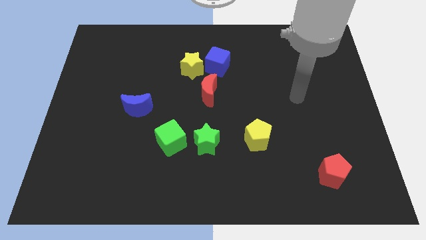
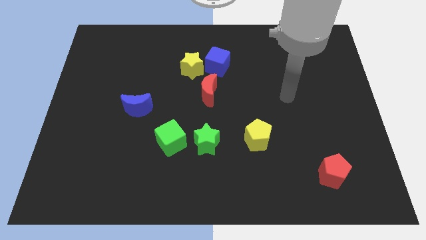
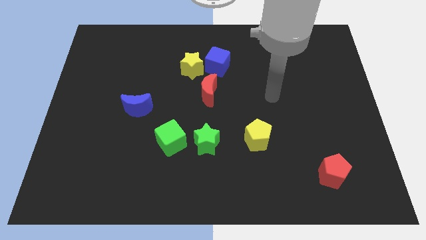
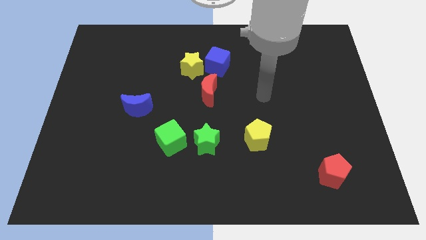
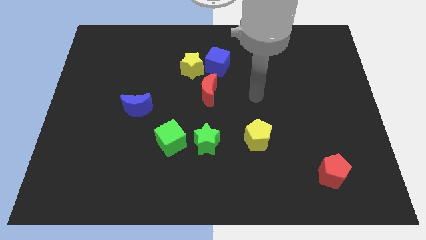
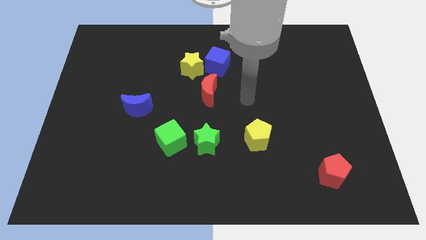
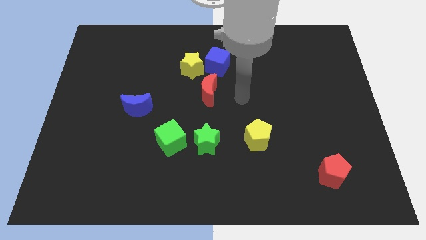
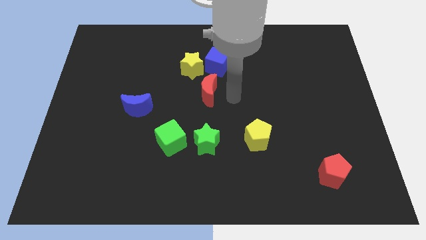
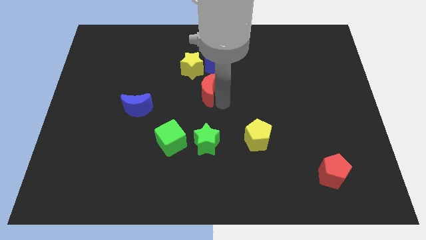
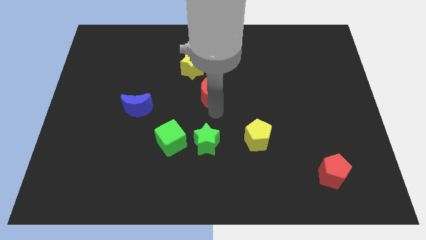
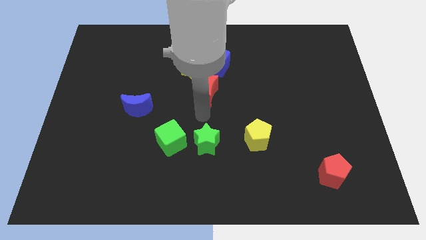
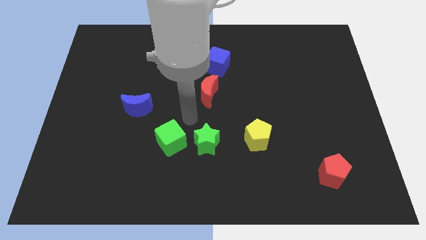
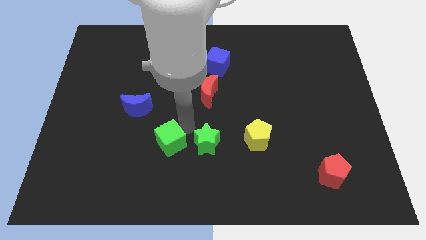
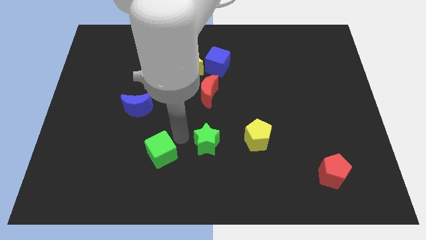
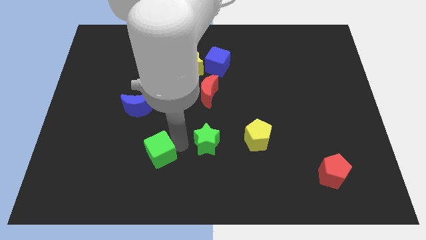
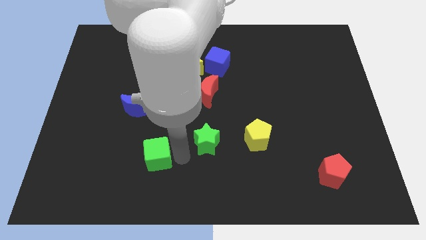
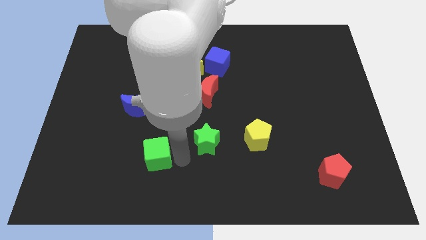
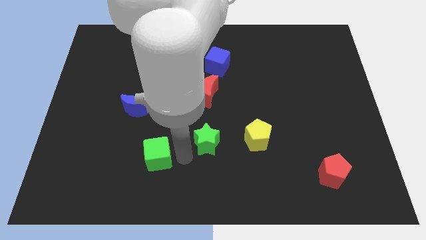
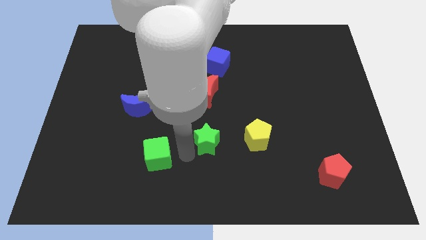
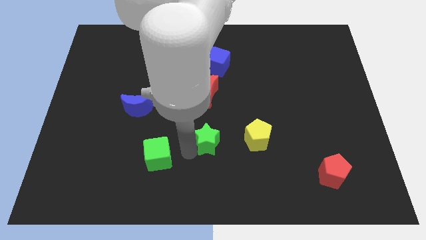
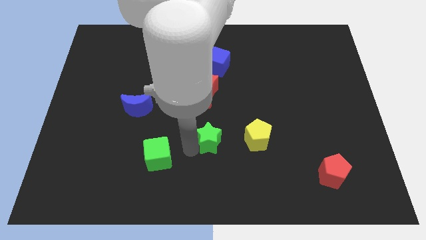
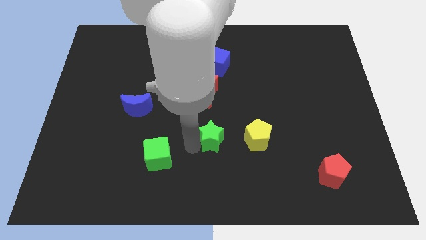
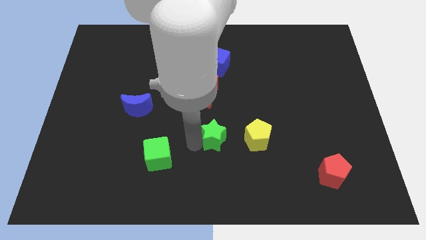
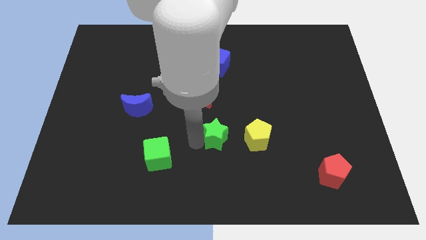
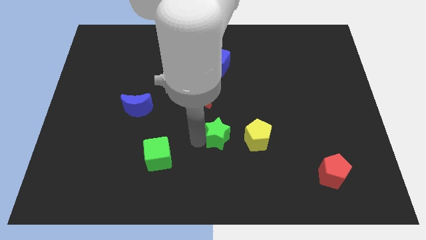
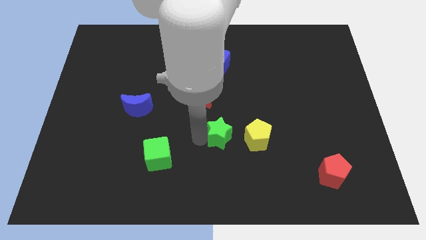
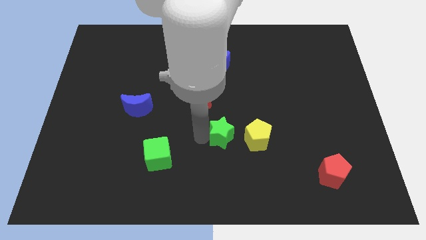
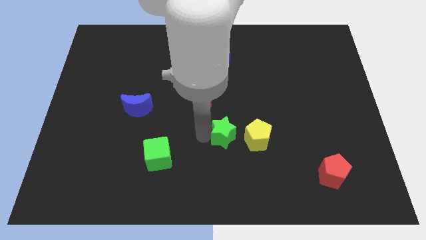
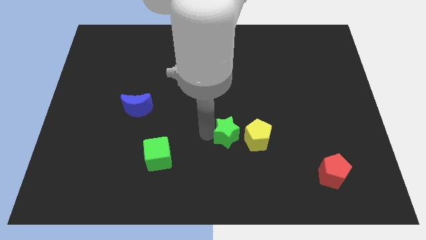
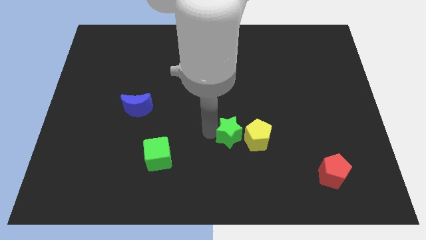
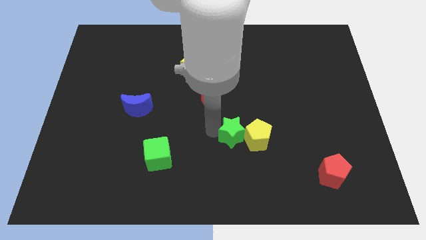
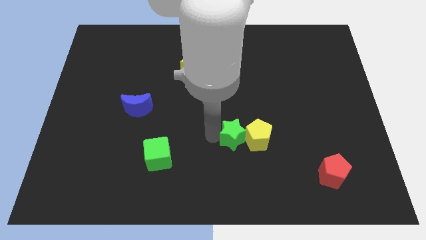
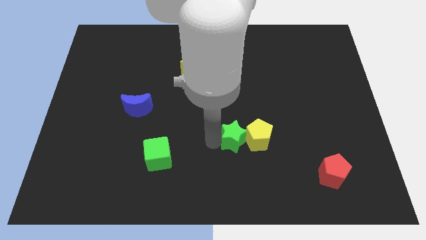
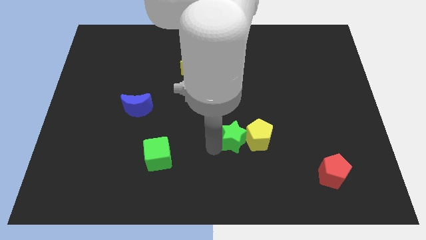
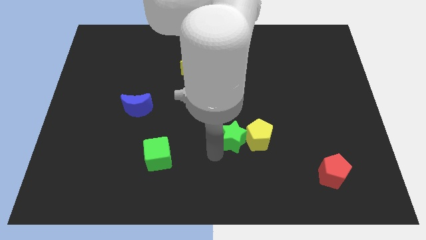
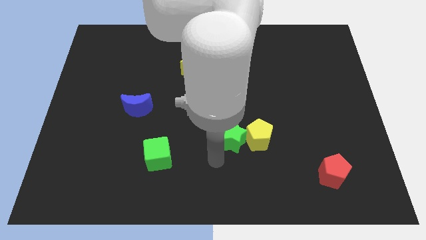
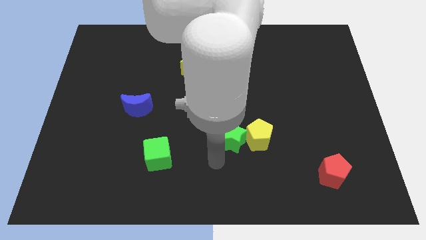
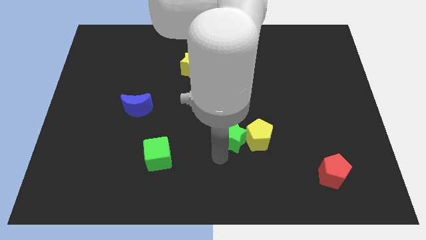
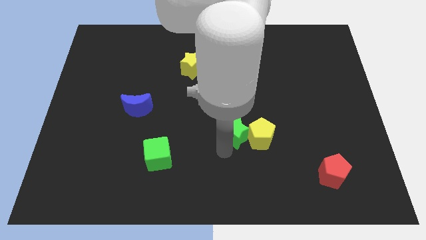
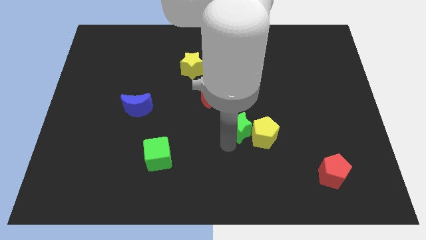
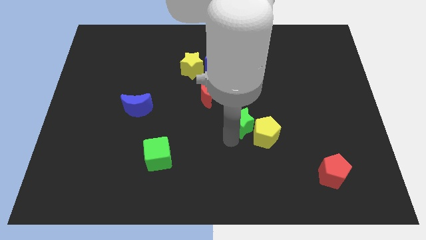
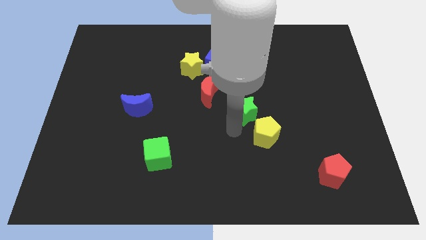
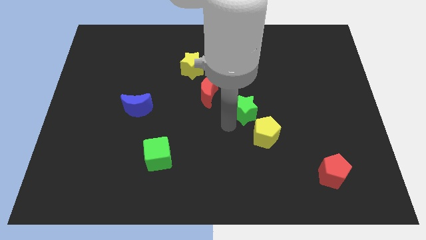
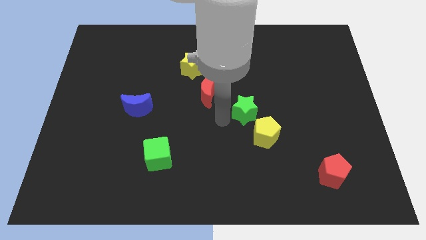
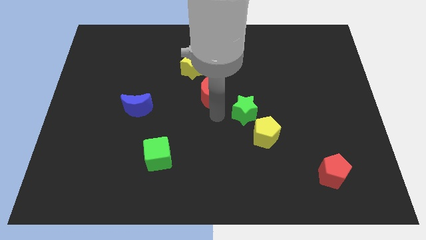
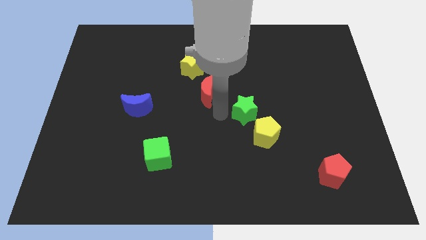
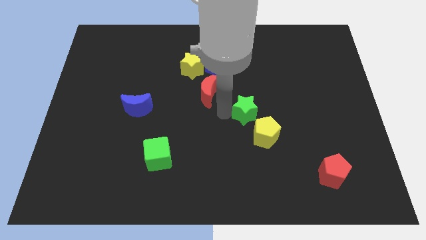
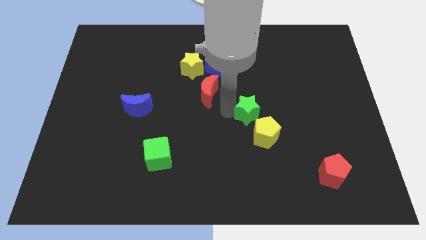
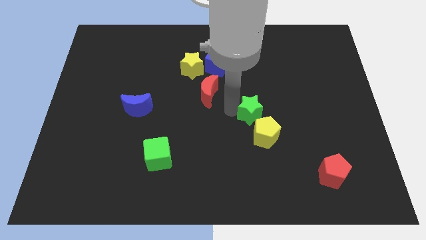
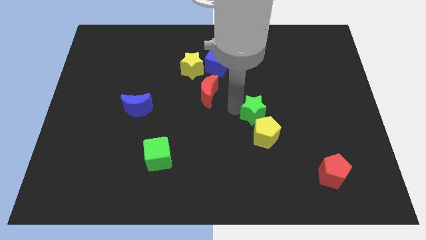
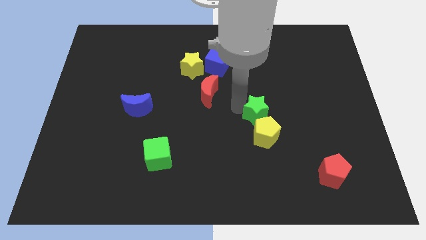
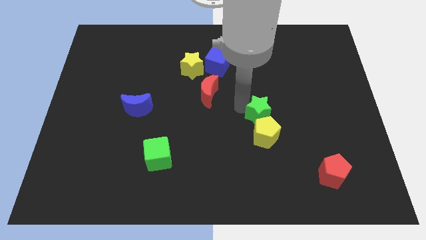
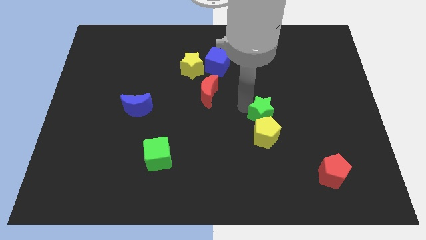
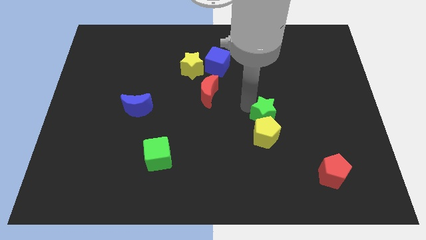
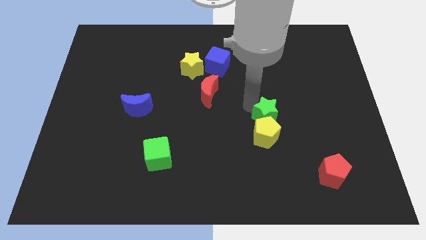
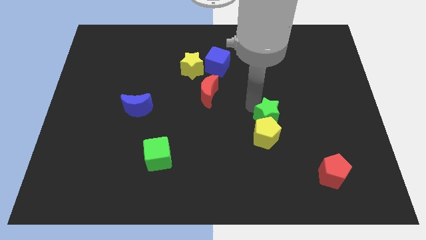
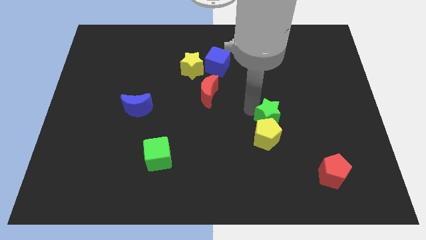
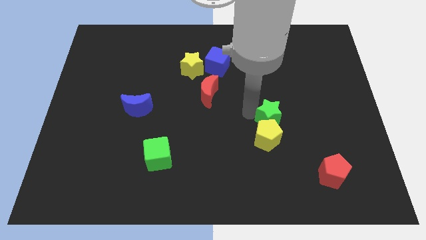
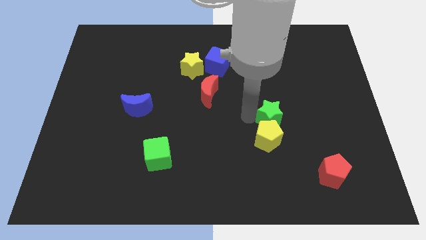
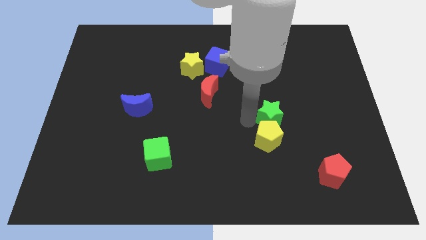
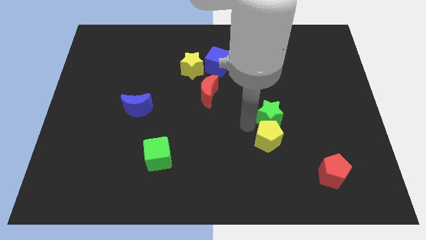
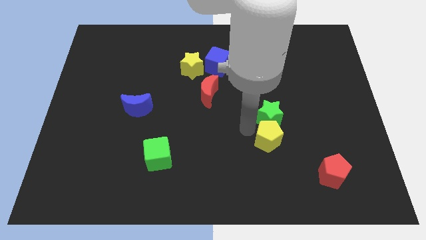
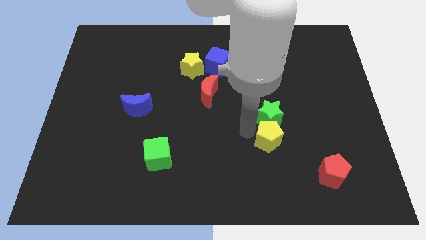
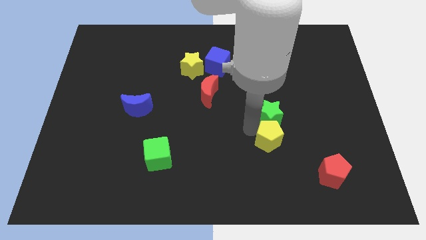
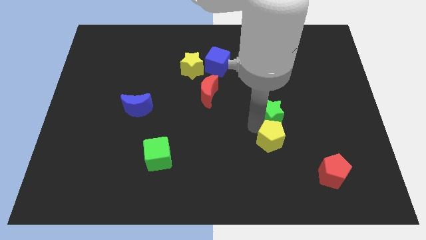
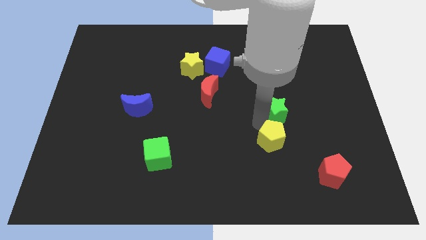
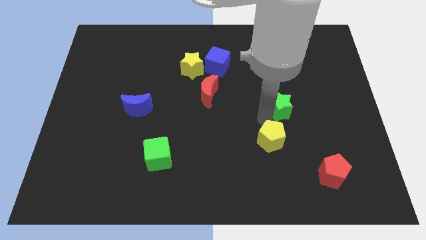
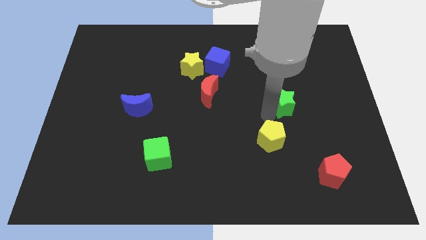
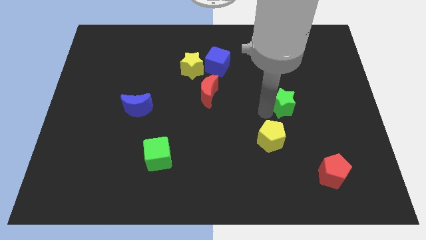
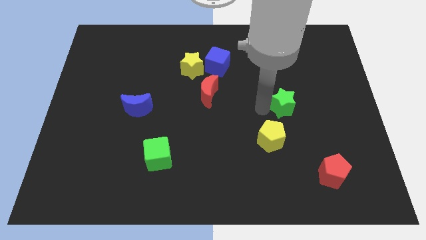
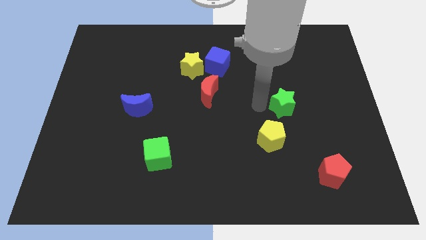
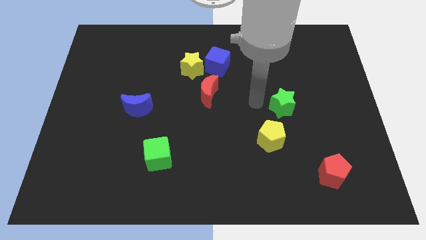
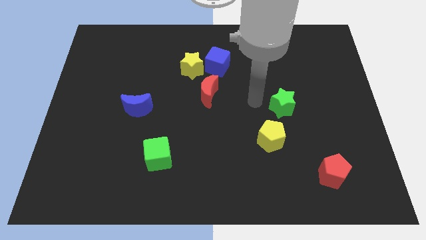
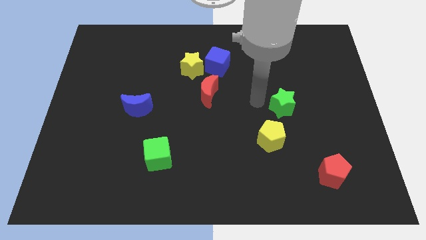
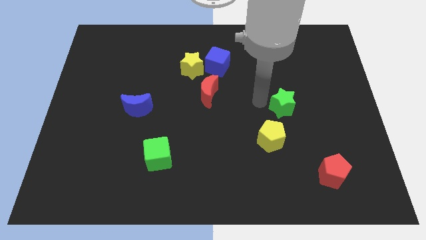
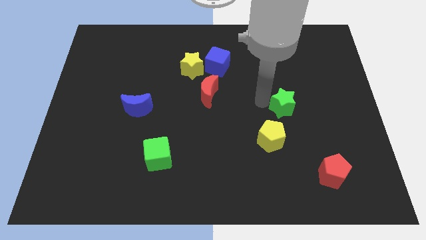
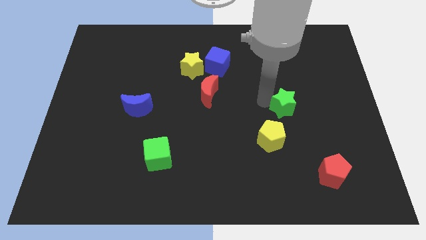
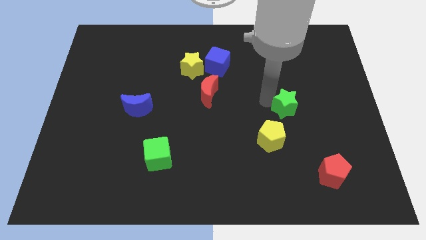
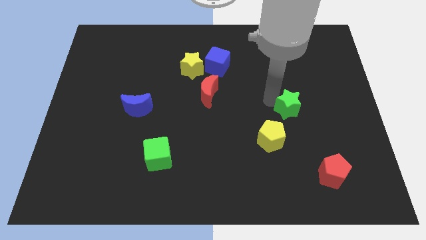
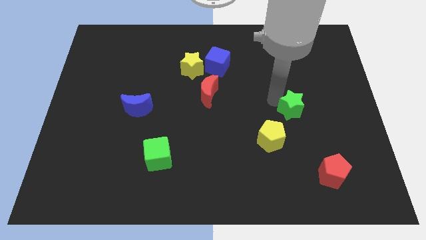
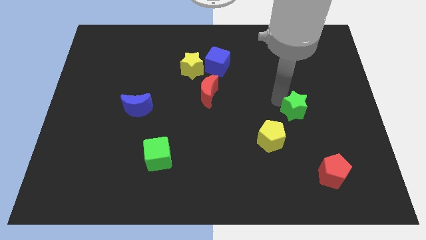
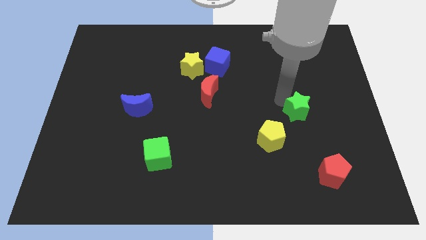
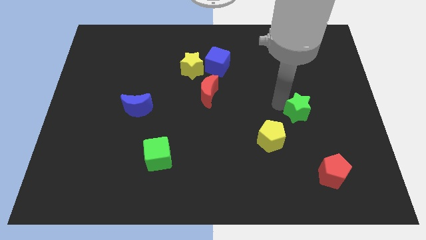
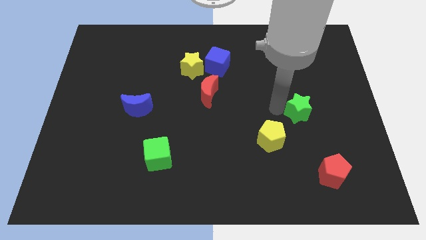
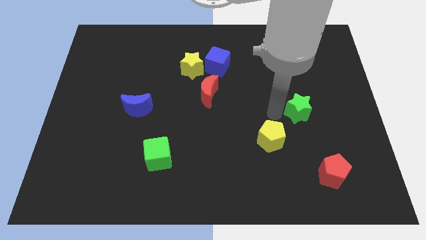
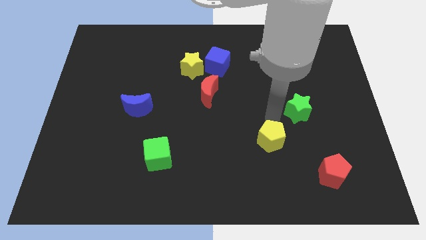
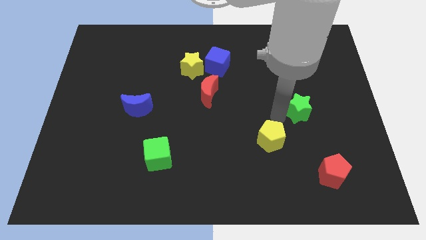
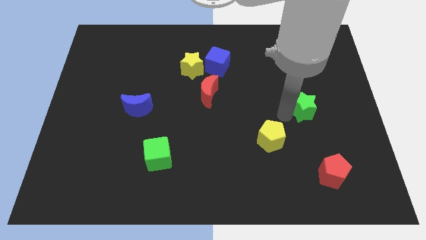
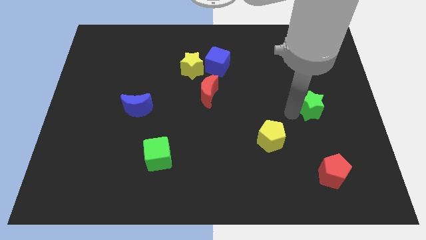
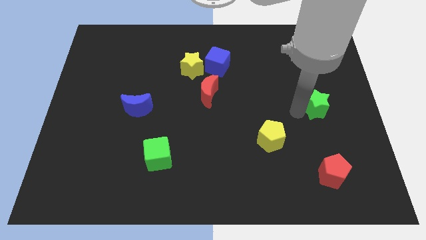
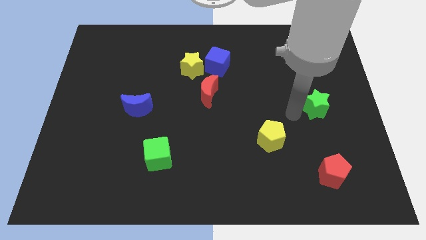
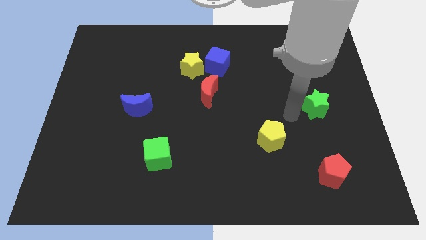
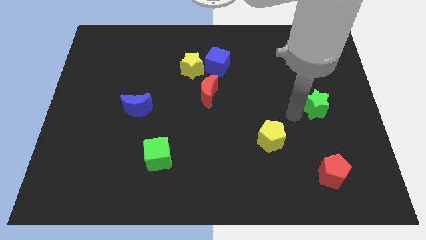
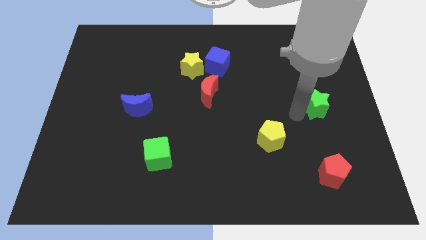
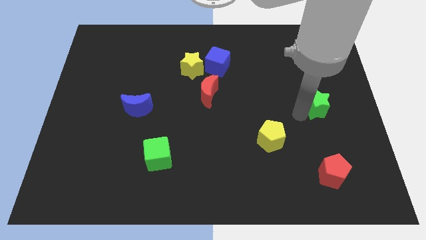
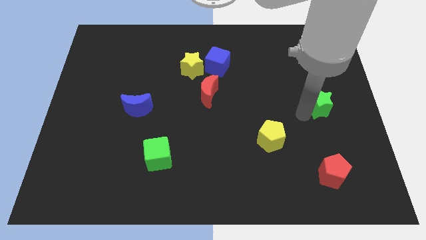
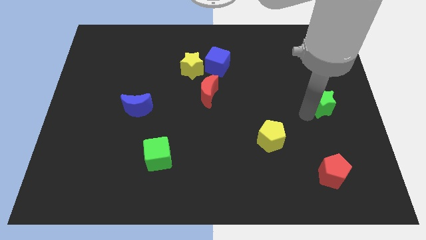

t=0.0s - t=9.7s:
slide the green star to the center right
